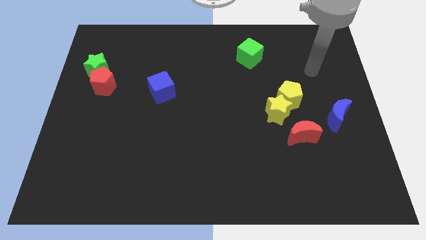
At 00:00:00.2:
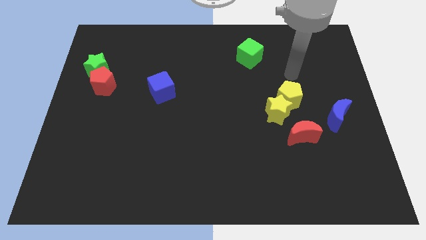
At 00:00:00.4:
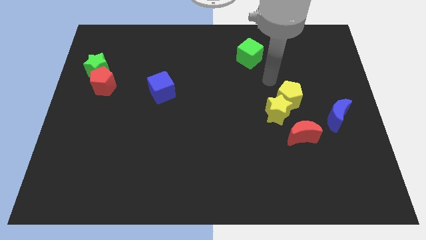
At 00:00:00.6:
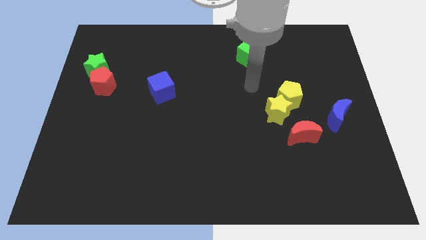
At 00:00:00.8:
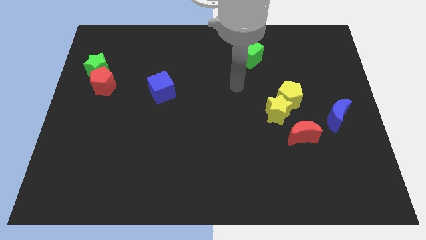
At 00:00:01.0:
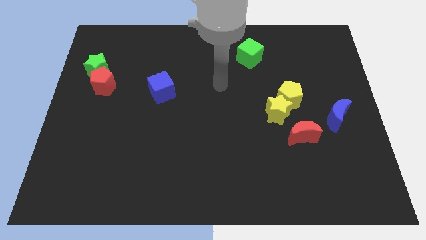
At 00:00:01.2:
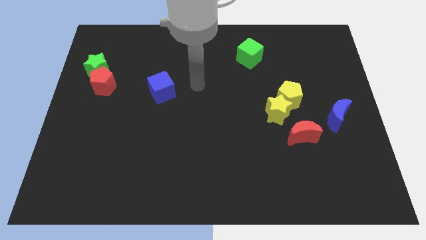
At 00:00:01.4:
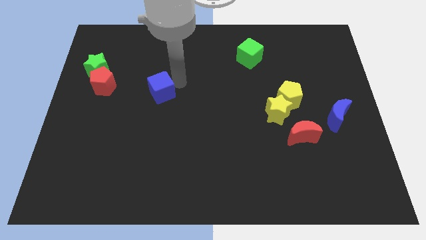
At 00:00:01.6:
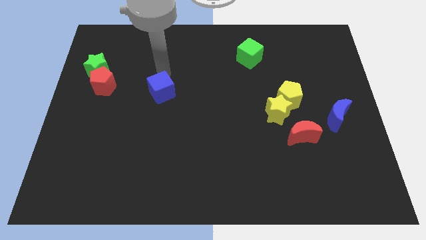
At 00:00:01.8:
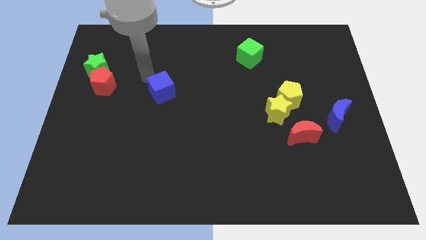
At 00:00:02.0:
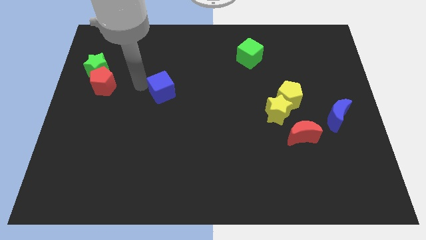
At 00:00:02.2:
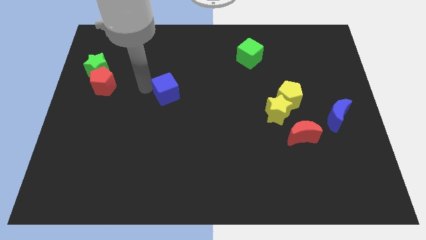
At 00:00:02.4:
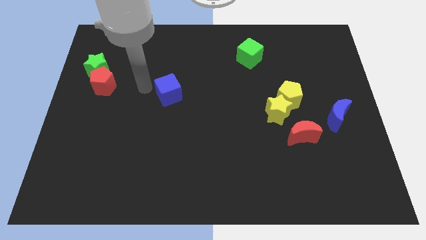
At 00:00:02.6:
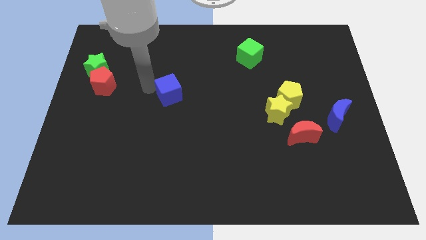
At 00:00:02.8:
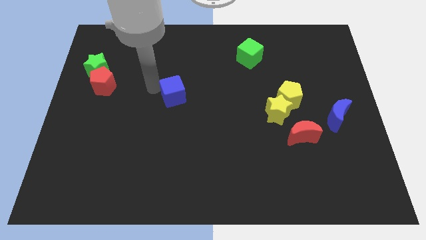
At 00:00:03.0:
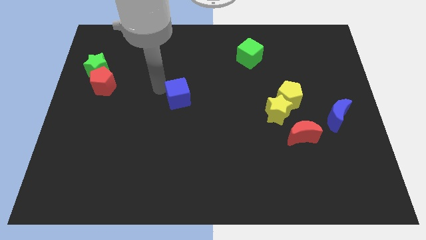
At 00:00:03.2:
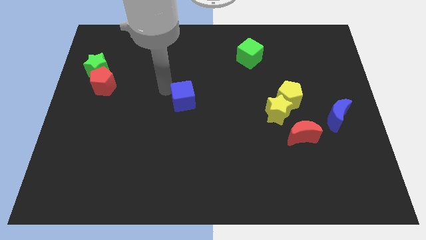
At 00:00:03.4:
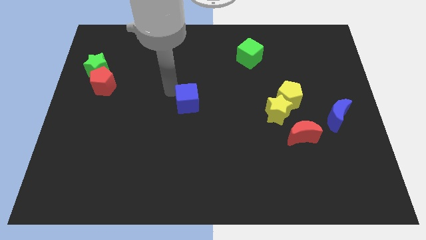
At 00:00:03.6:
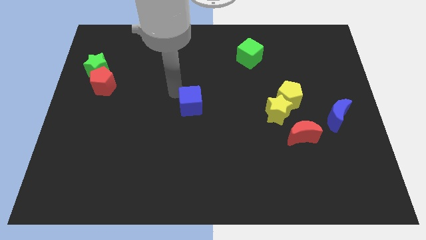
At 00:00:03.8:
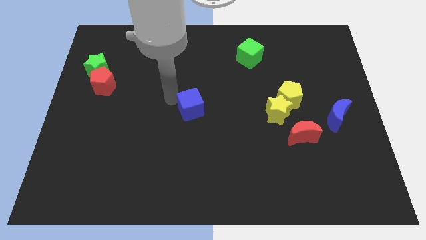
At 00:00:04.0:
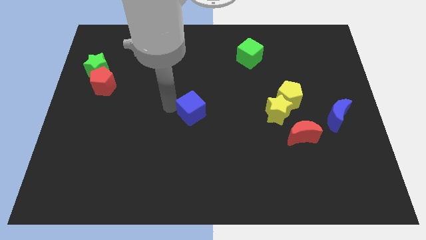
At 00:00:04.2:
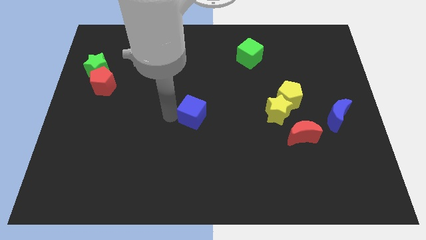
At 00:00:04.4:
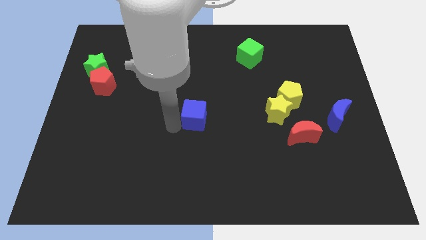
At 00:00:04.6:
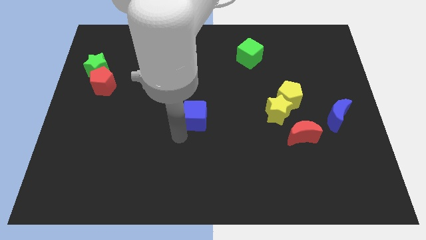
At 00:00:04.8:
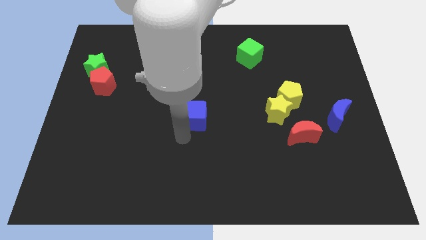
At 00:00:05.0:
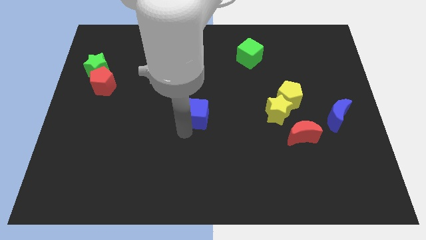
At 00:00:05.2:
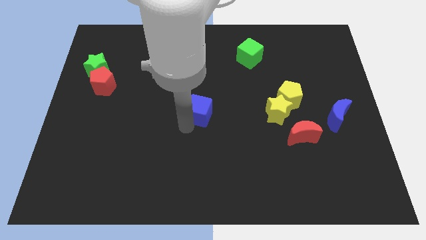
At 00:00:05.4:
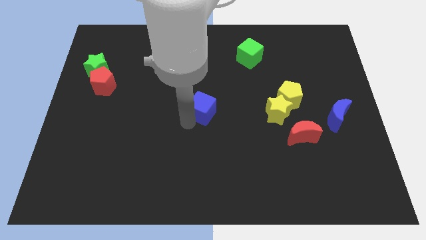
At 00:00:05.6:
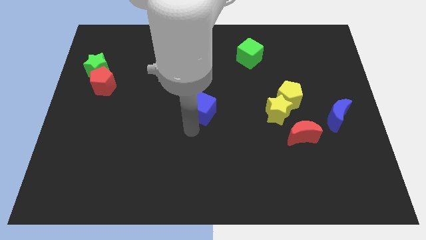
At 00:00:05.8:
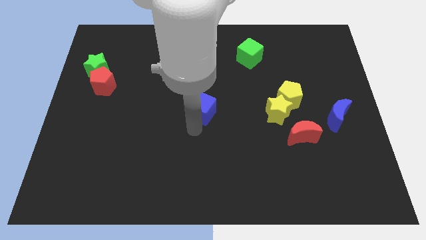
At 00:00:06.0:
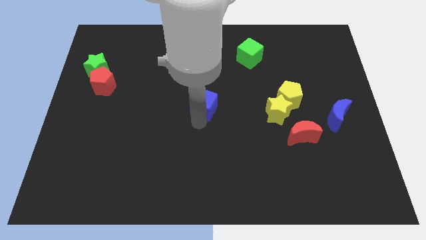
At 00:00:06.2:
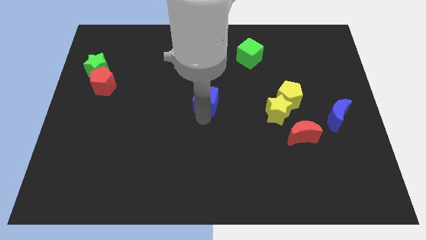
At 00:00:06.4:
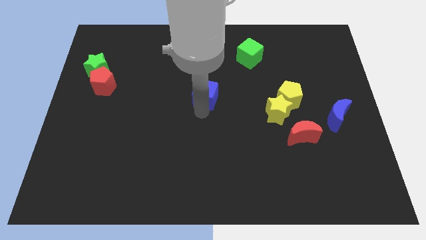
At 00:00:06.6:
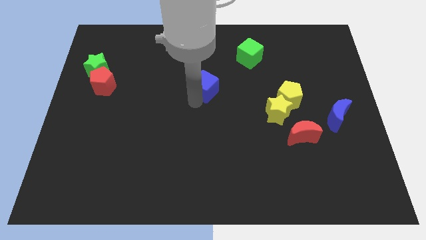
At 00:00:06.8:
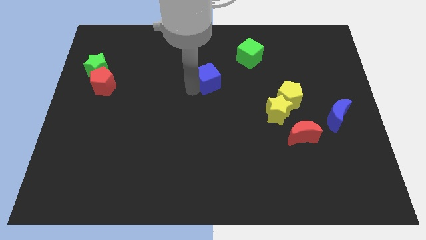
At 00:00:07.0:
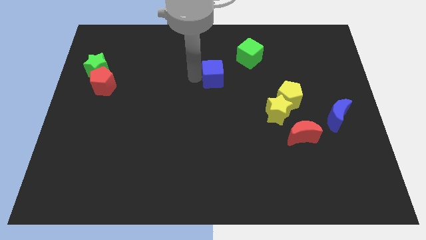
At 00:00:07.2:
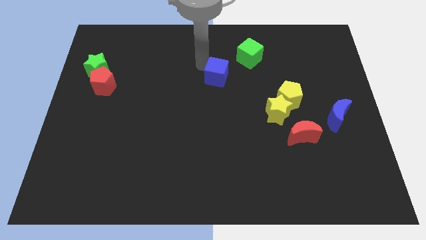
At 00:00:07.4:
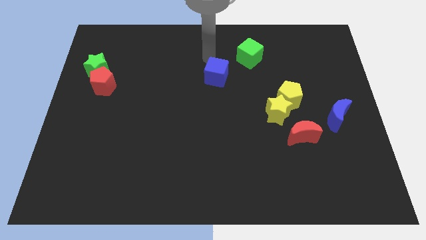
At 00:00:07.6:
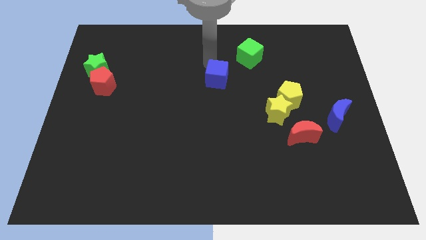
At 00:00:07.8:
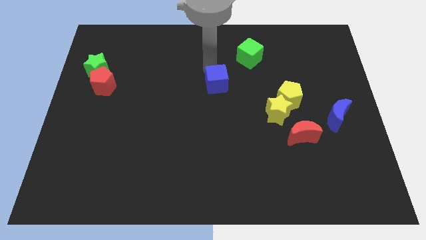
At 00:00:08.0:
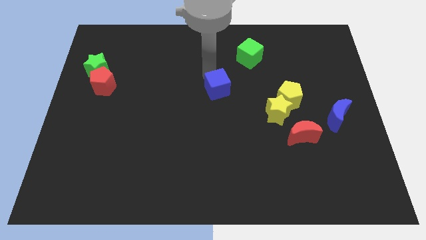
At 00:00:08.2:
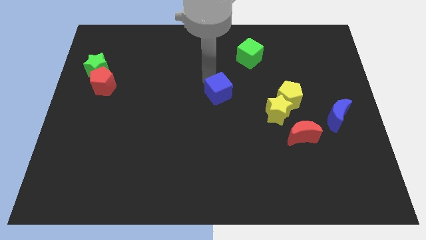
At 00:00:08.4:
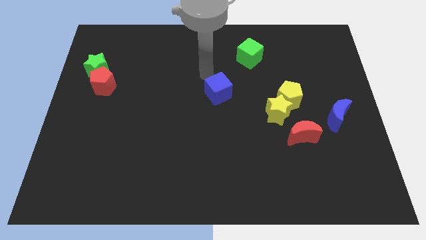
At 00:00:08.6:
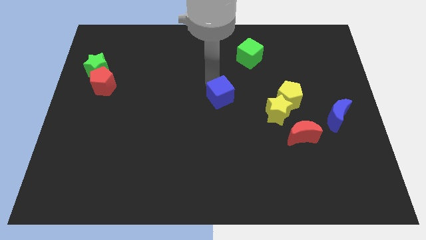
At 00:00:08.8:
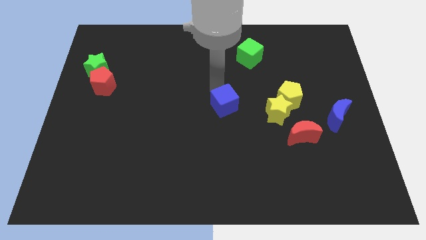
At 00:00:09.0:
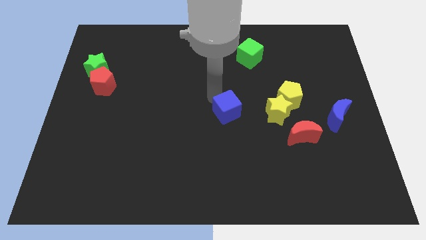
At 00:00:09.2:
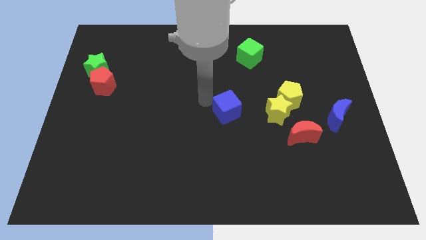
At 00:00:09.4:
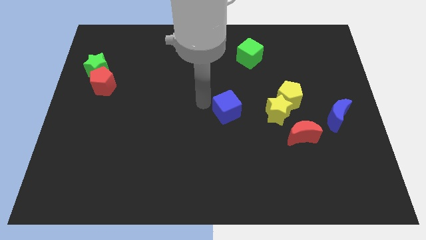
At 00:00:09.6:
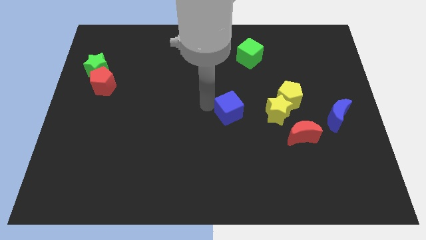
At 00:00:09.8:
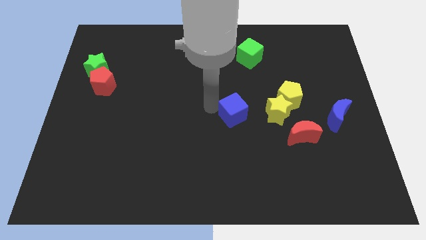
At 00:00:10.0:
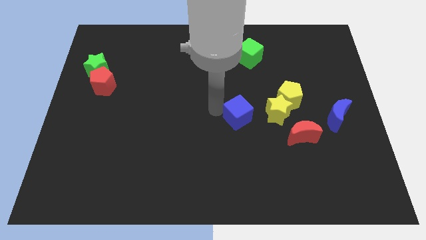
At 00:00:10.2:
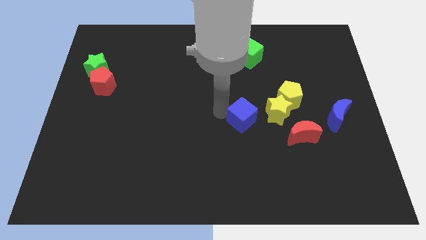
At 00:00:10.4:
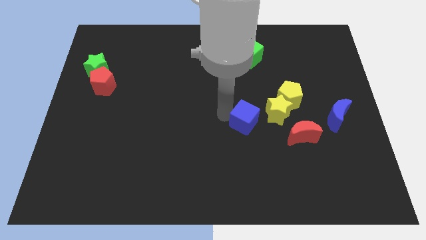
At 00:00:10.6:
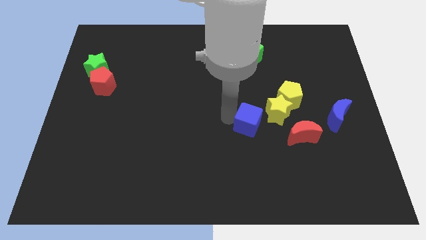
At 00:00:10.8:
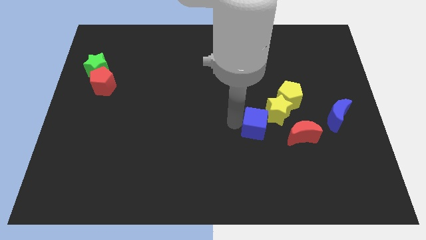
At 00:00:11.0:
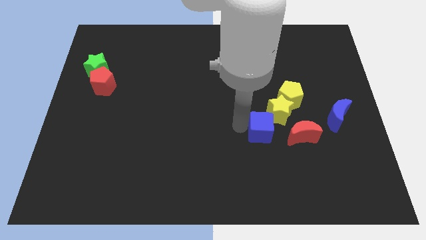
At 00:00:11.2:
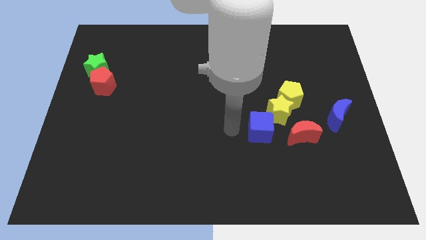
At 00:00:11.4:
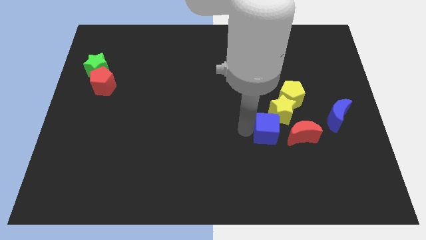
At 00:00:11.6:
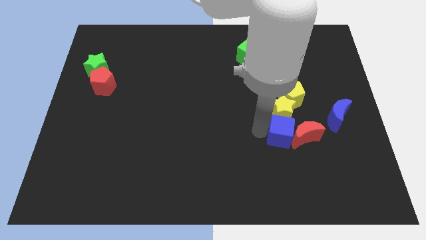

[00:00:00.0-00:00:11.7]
slide the blue cube to the red moon

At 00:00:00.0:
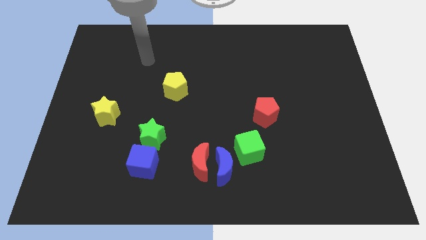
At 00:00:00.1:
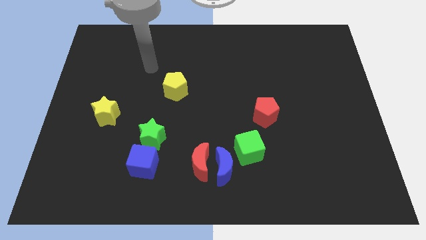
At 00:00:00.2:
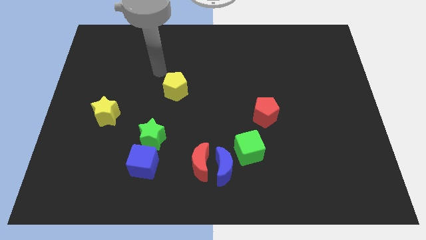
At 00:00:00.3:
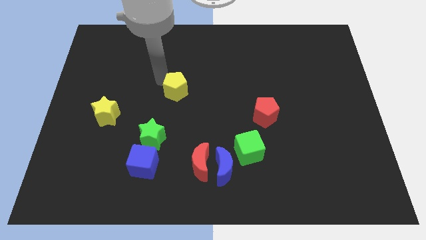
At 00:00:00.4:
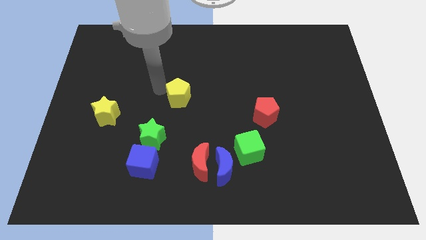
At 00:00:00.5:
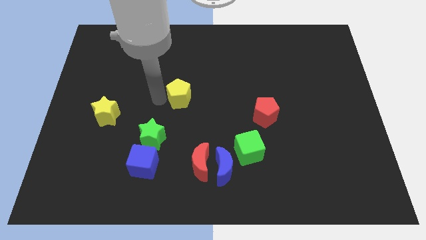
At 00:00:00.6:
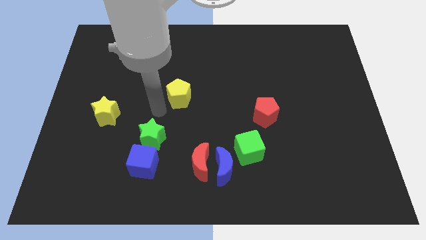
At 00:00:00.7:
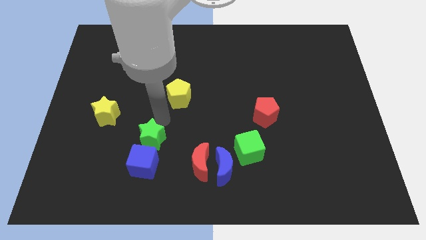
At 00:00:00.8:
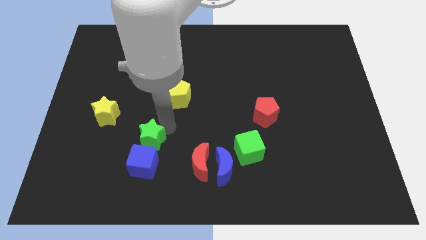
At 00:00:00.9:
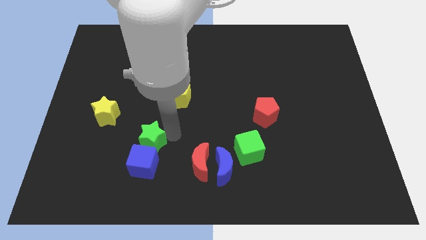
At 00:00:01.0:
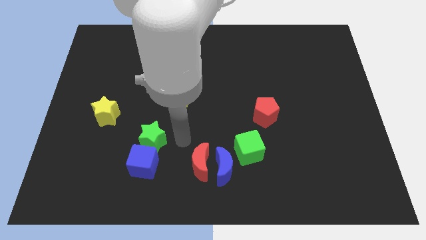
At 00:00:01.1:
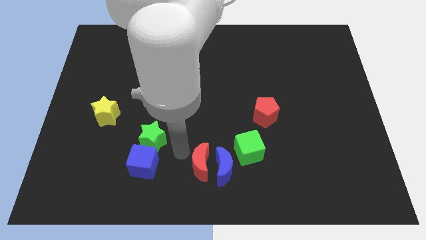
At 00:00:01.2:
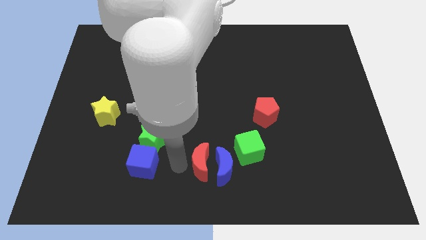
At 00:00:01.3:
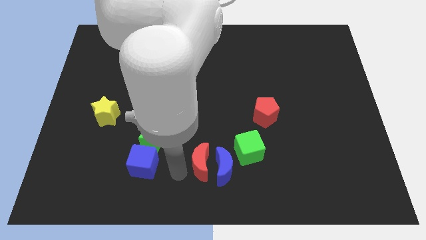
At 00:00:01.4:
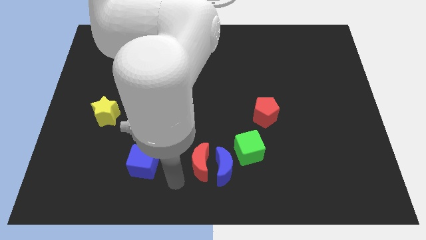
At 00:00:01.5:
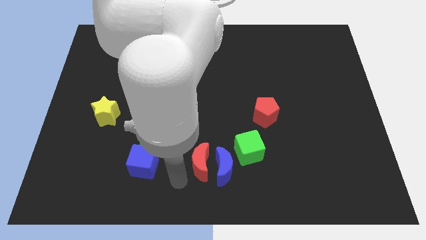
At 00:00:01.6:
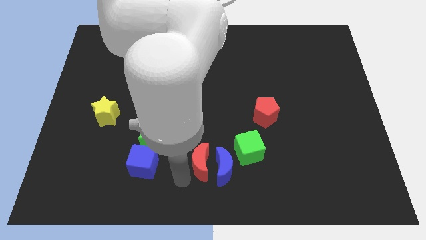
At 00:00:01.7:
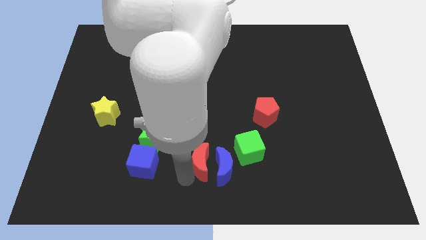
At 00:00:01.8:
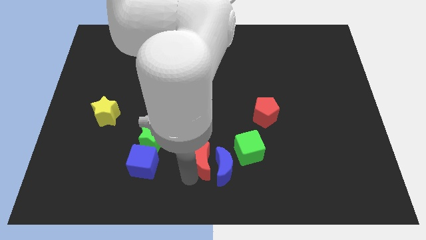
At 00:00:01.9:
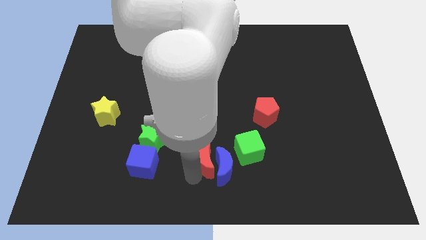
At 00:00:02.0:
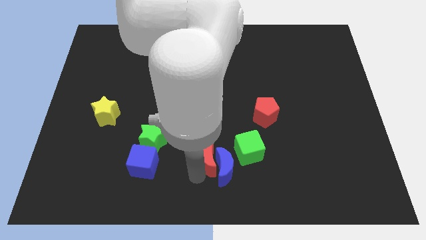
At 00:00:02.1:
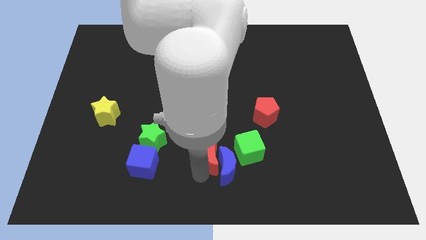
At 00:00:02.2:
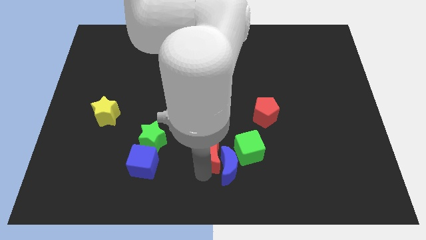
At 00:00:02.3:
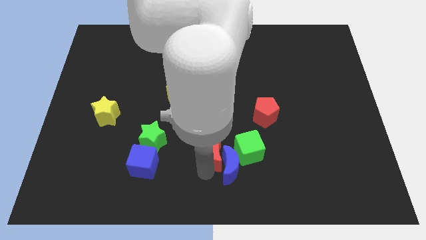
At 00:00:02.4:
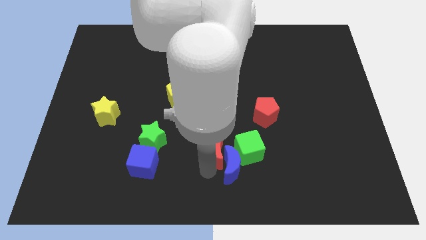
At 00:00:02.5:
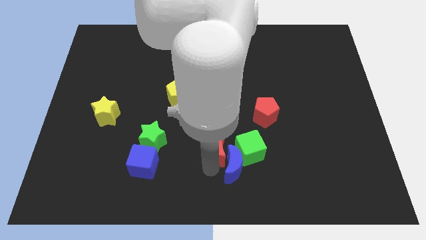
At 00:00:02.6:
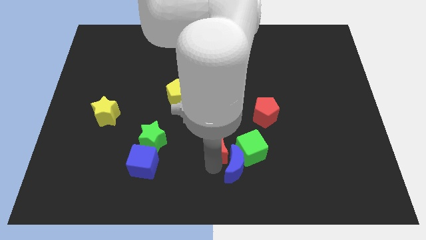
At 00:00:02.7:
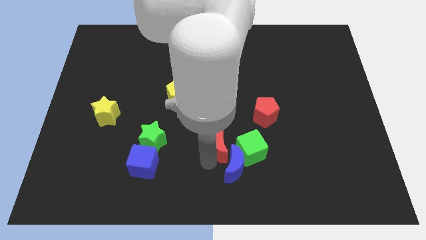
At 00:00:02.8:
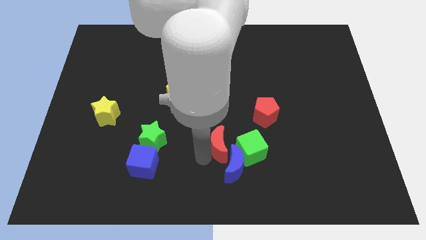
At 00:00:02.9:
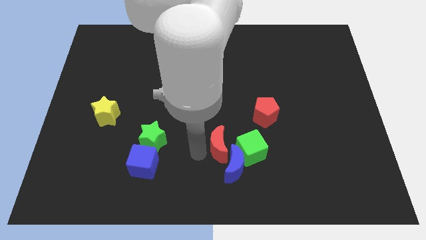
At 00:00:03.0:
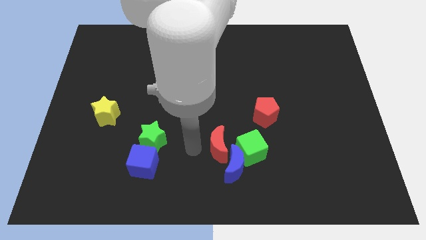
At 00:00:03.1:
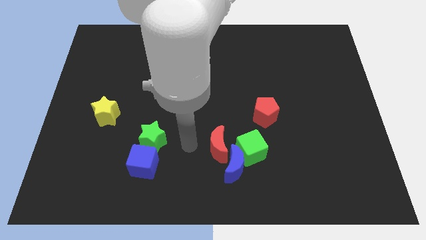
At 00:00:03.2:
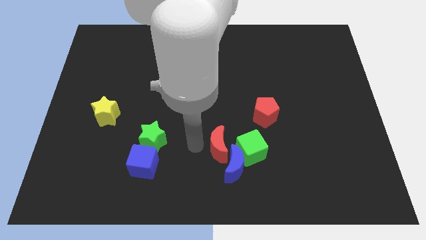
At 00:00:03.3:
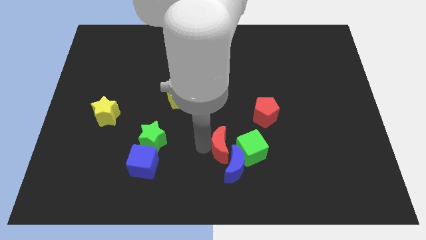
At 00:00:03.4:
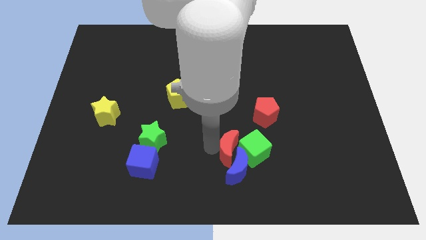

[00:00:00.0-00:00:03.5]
slide the red moon towards the green cube
